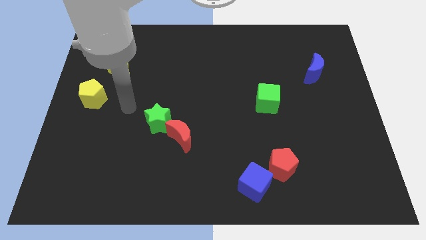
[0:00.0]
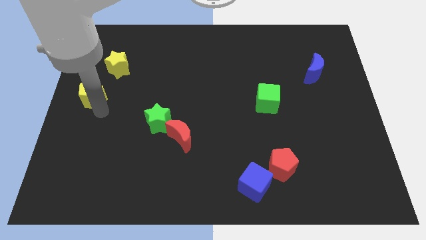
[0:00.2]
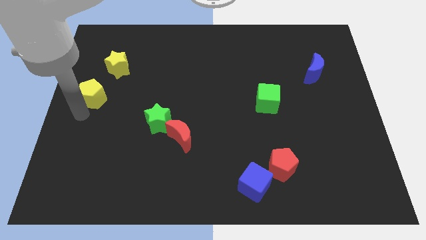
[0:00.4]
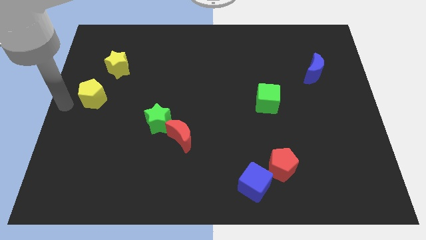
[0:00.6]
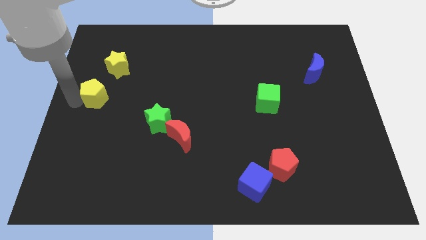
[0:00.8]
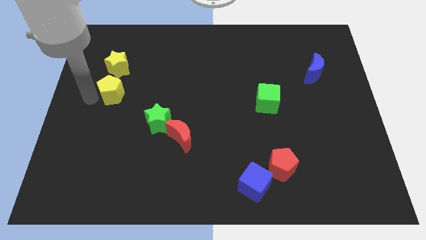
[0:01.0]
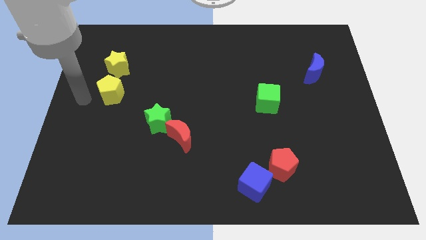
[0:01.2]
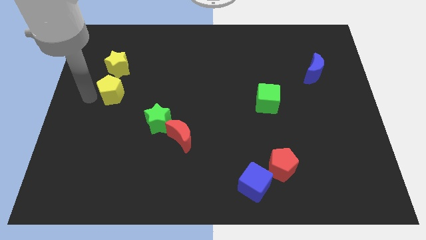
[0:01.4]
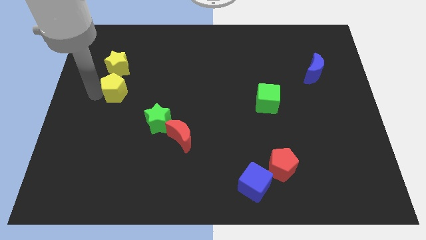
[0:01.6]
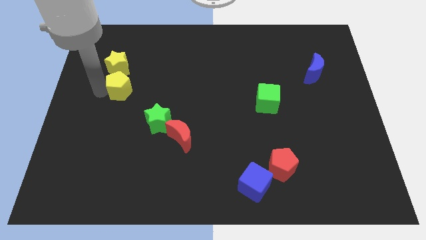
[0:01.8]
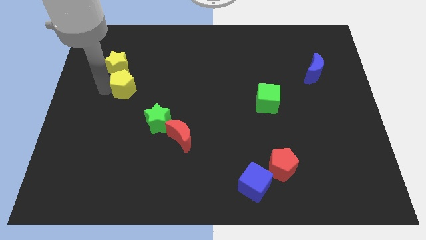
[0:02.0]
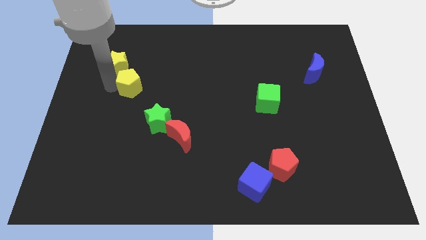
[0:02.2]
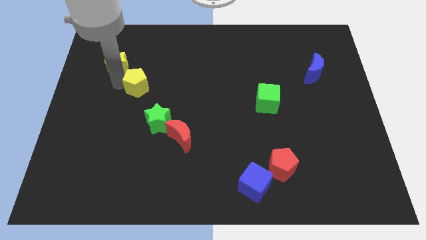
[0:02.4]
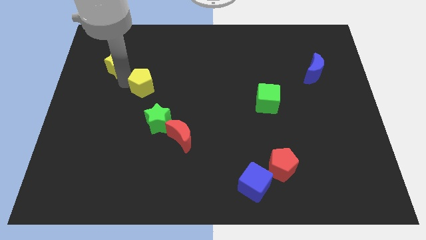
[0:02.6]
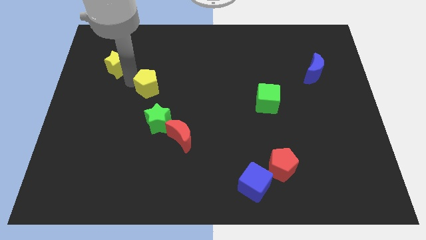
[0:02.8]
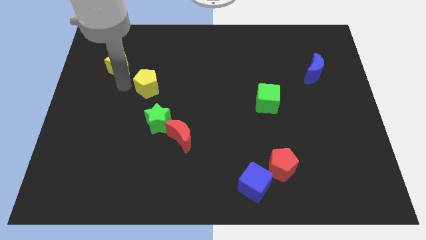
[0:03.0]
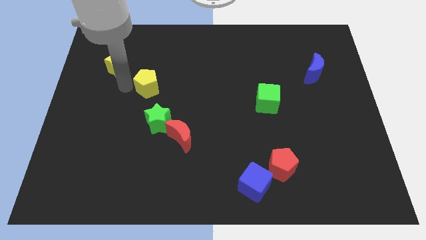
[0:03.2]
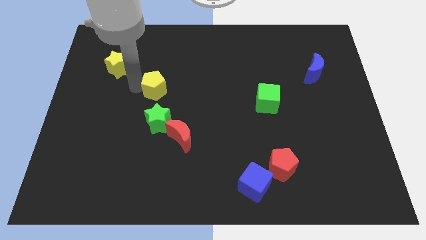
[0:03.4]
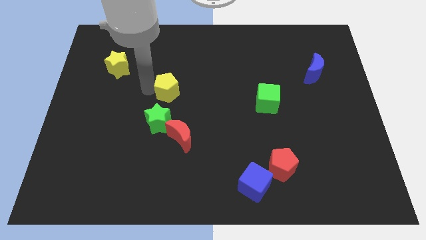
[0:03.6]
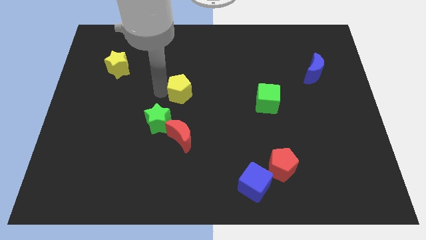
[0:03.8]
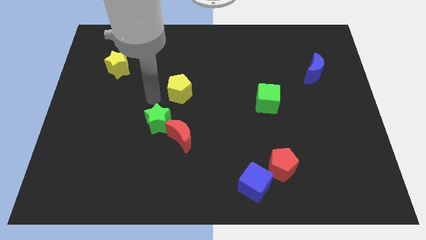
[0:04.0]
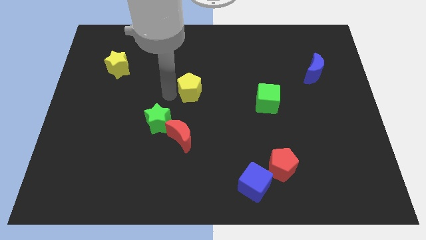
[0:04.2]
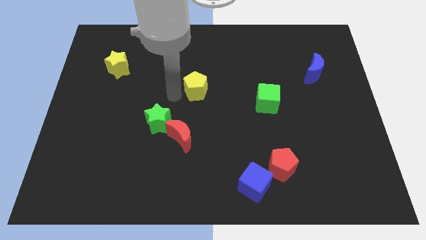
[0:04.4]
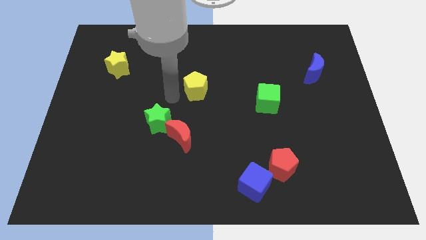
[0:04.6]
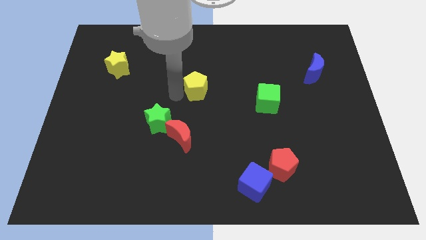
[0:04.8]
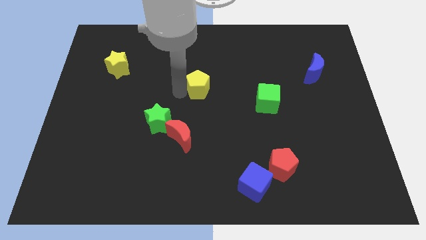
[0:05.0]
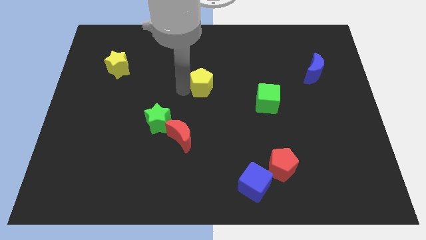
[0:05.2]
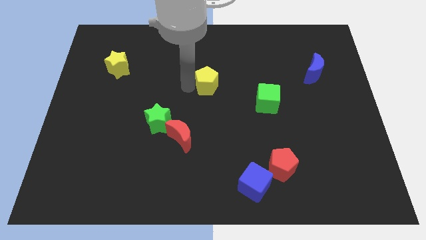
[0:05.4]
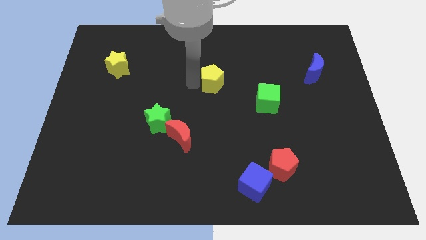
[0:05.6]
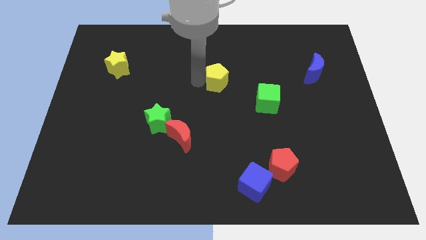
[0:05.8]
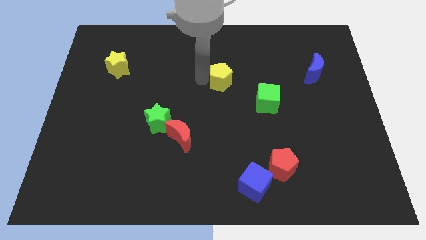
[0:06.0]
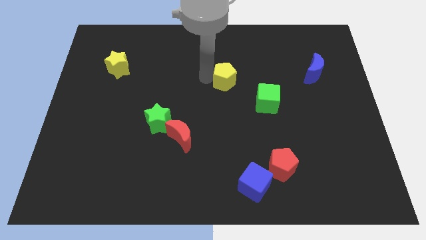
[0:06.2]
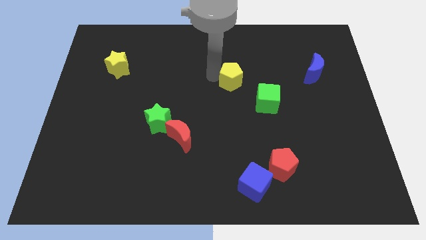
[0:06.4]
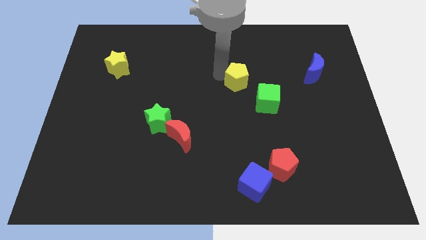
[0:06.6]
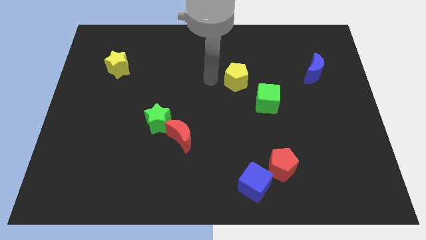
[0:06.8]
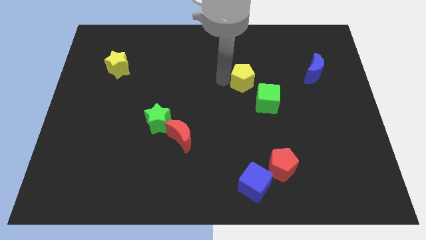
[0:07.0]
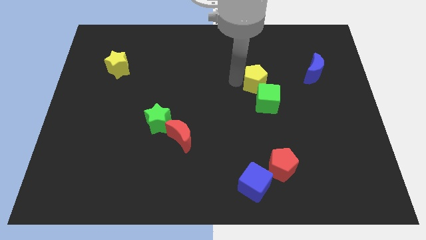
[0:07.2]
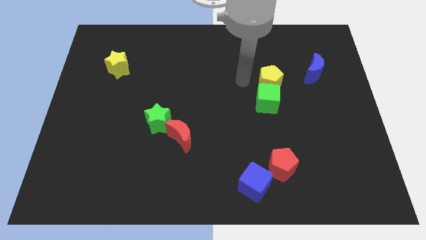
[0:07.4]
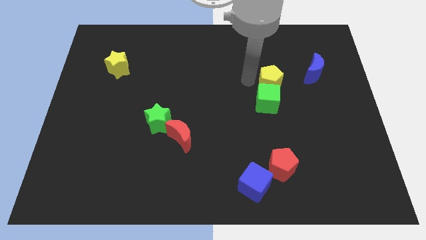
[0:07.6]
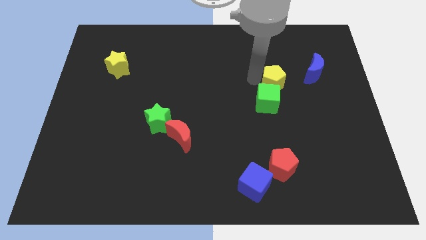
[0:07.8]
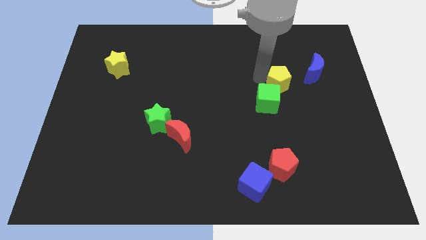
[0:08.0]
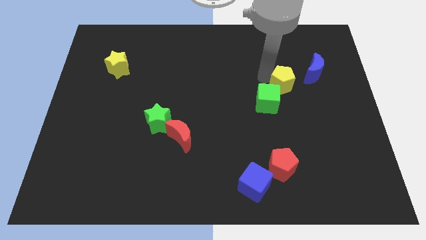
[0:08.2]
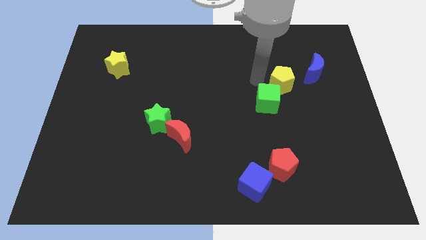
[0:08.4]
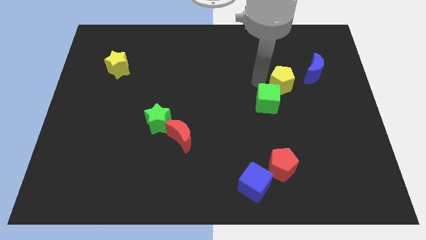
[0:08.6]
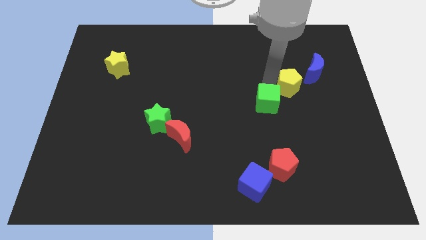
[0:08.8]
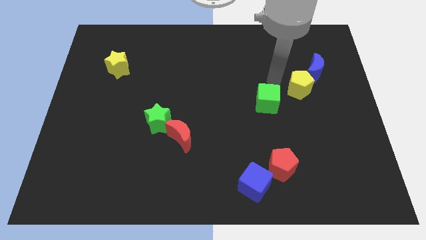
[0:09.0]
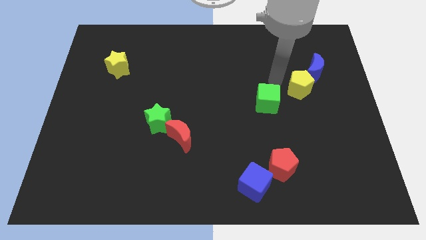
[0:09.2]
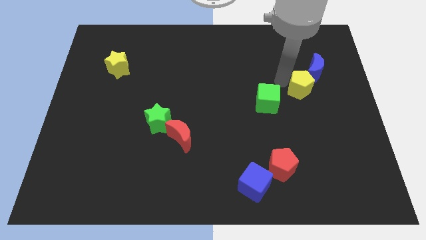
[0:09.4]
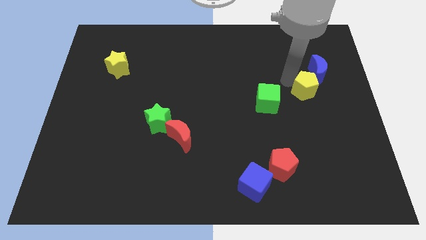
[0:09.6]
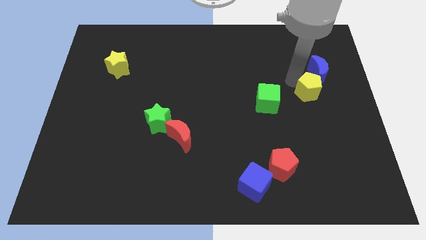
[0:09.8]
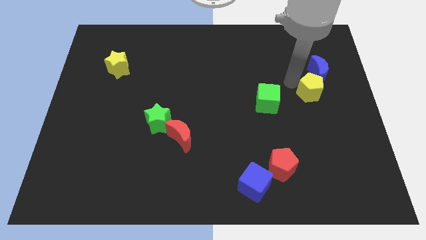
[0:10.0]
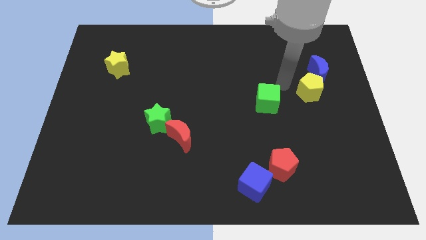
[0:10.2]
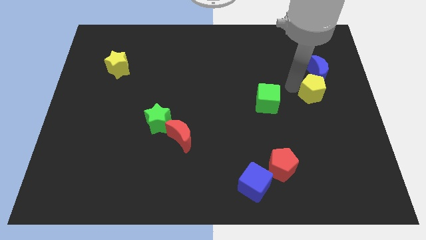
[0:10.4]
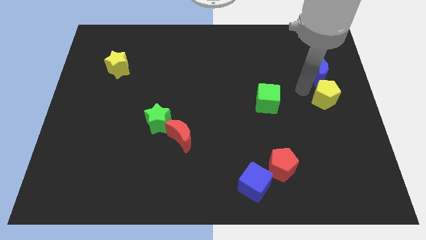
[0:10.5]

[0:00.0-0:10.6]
move the yellow pentagon to the right side of the board
